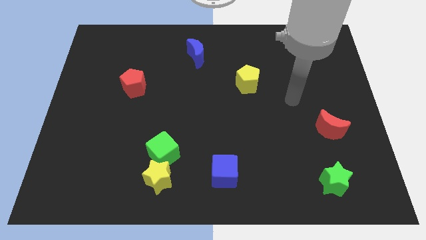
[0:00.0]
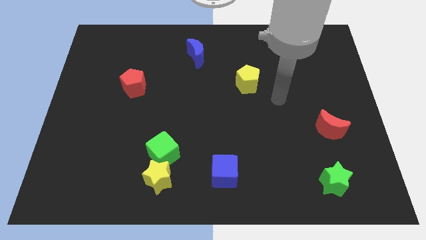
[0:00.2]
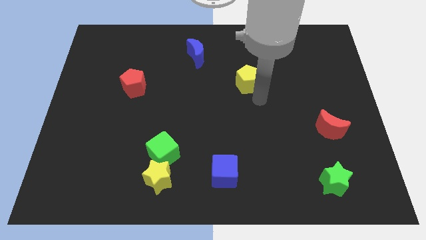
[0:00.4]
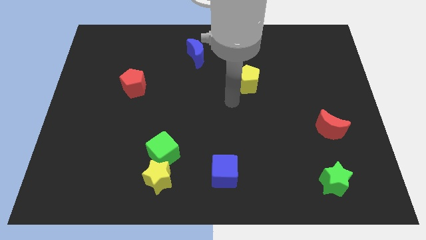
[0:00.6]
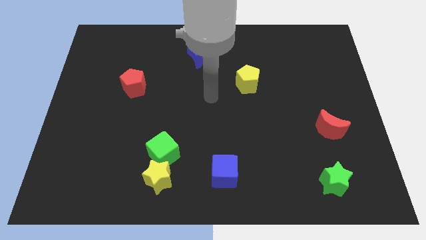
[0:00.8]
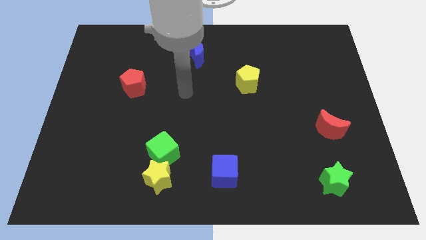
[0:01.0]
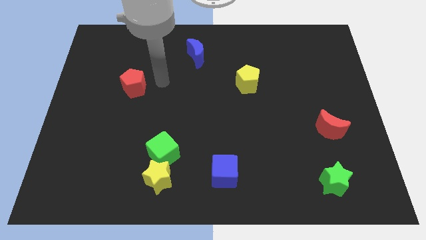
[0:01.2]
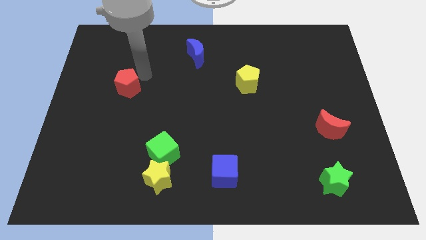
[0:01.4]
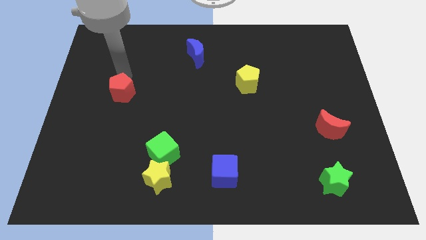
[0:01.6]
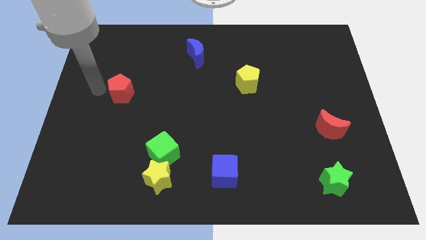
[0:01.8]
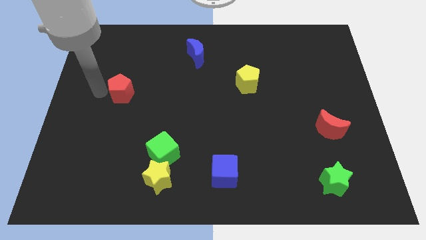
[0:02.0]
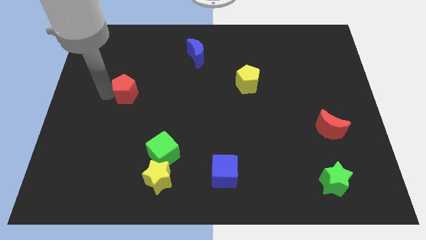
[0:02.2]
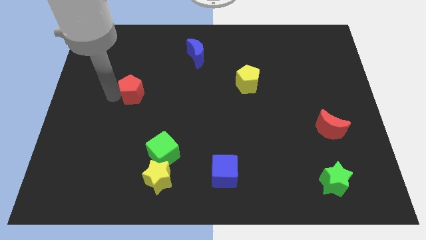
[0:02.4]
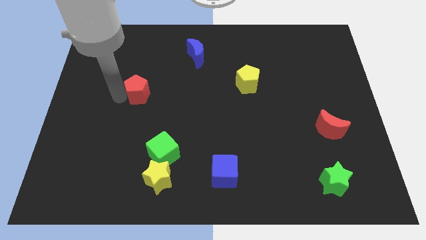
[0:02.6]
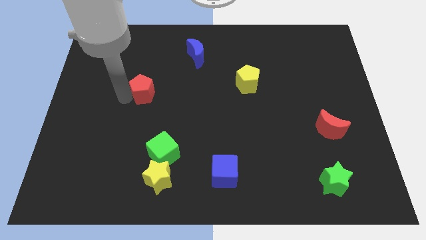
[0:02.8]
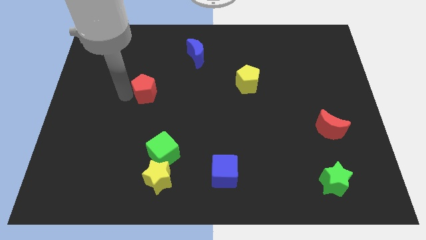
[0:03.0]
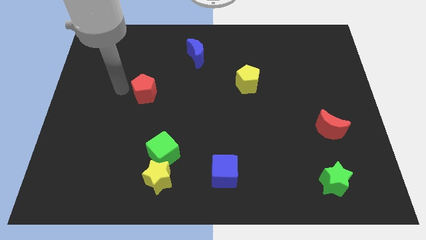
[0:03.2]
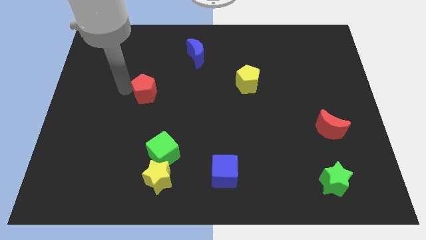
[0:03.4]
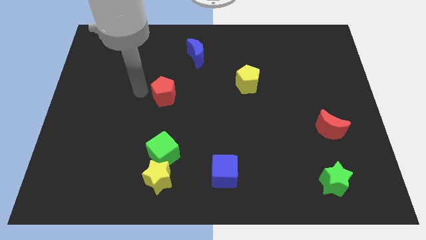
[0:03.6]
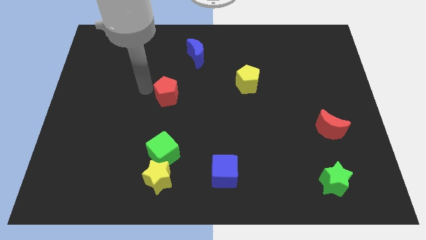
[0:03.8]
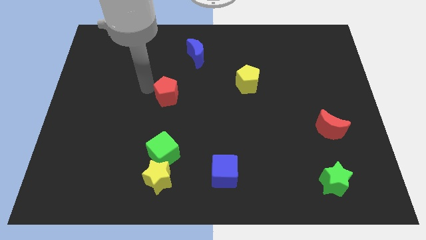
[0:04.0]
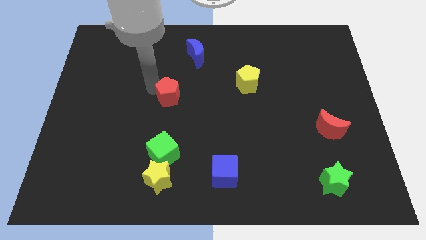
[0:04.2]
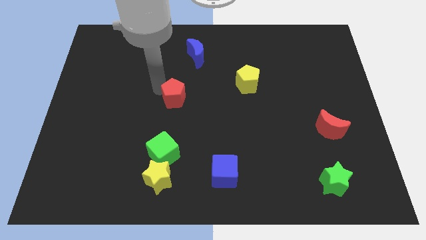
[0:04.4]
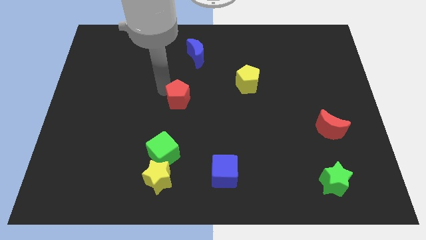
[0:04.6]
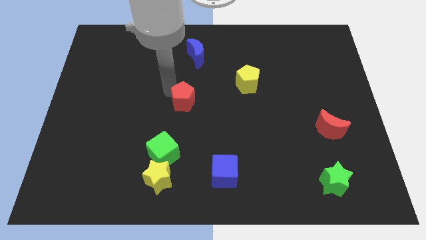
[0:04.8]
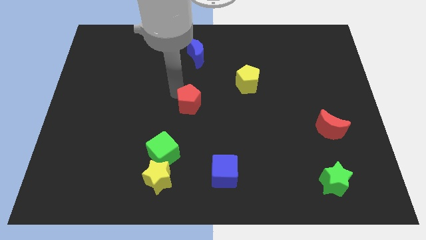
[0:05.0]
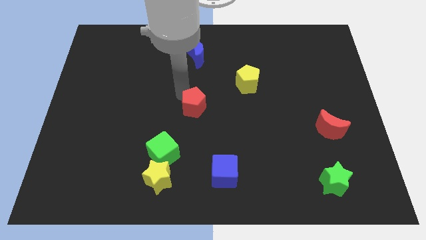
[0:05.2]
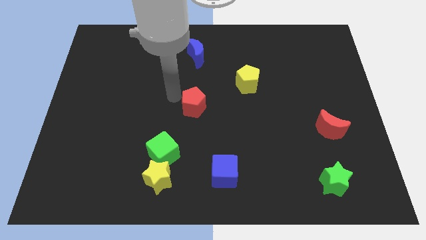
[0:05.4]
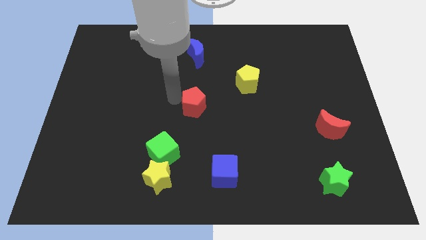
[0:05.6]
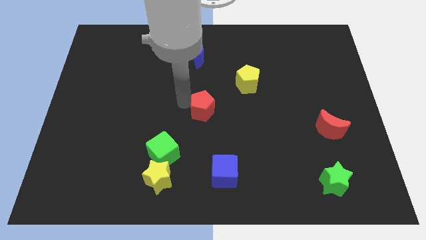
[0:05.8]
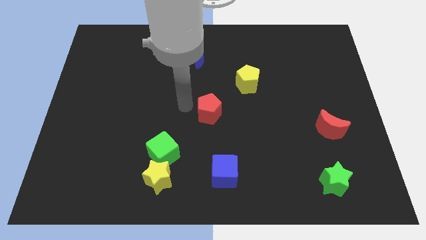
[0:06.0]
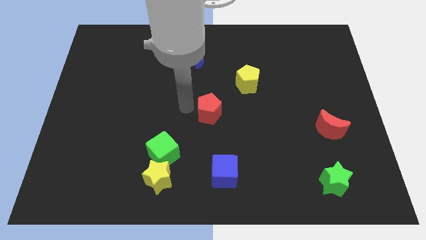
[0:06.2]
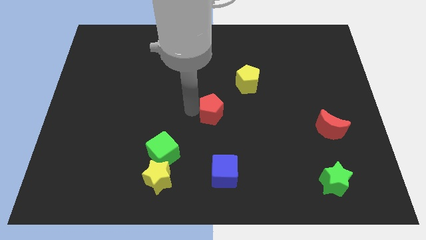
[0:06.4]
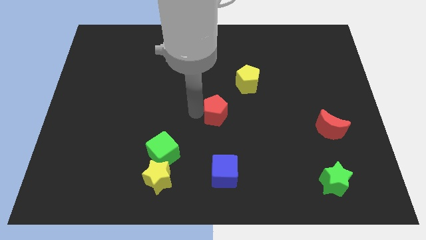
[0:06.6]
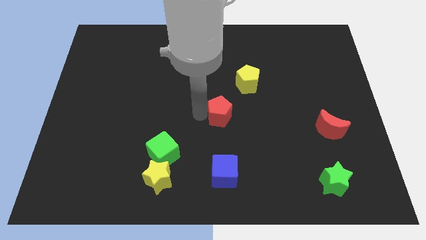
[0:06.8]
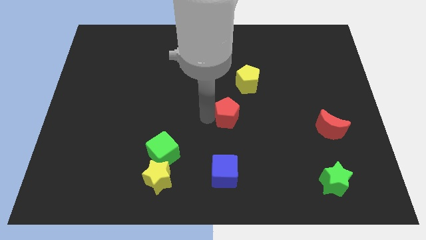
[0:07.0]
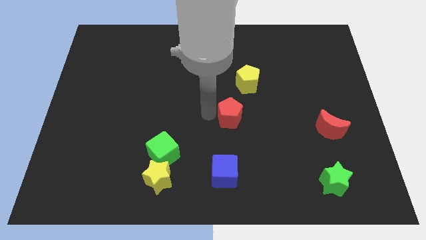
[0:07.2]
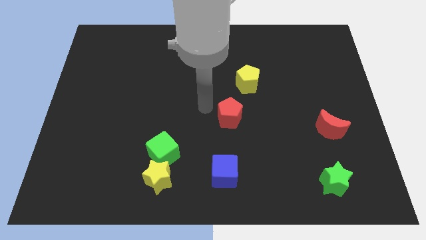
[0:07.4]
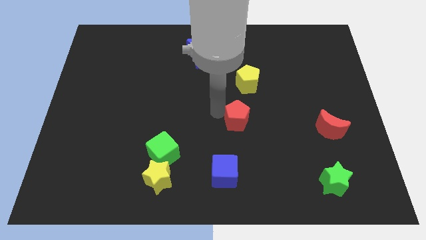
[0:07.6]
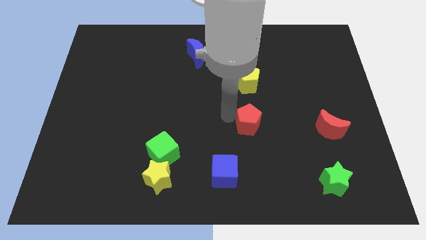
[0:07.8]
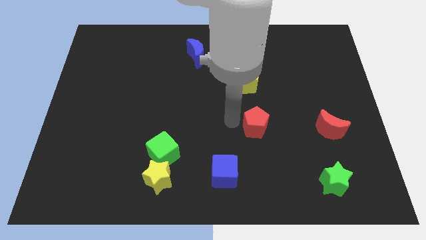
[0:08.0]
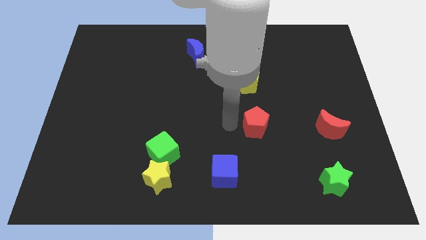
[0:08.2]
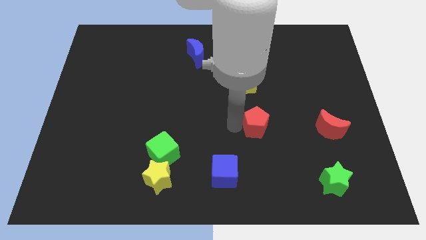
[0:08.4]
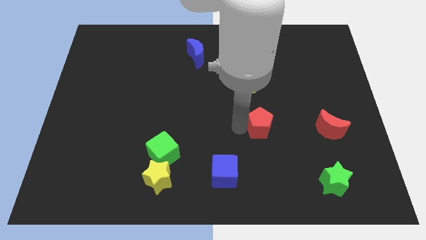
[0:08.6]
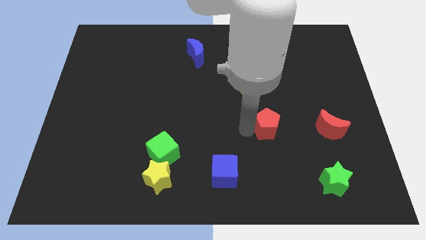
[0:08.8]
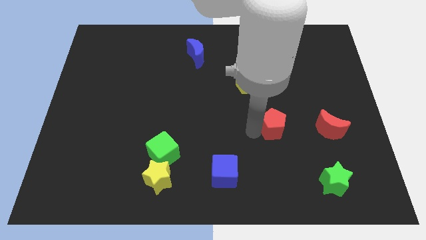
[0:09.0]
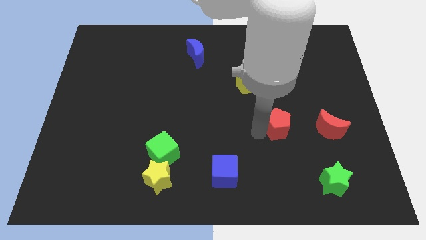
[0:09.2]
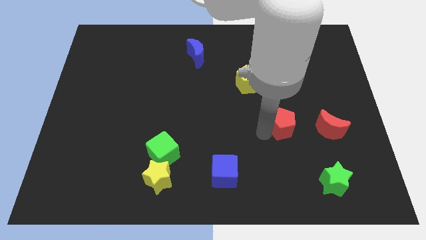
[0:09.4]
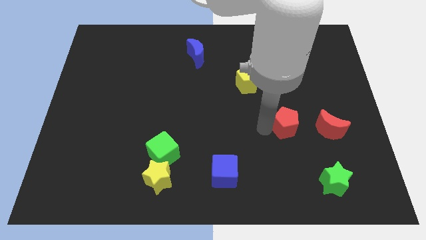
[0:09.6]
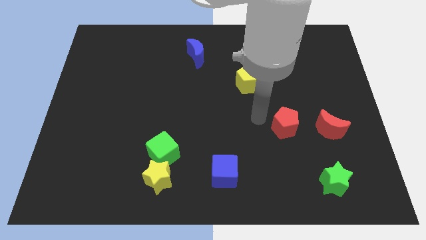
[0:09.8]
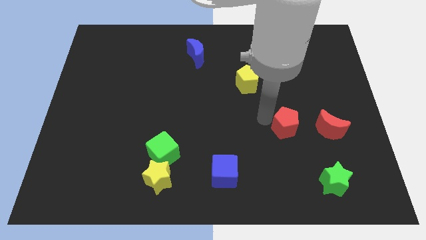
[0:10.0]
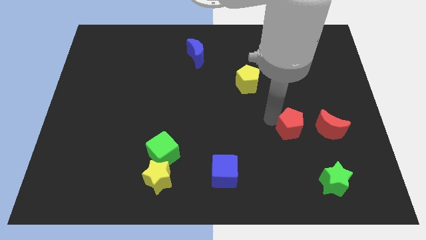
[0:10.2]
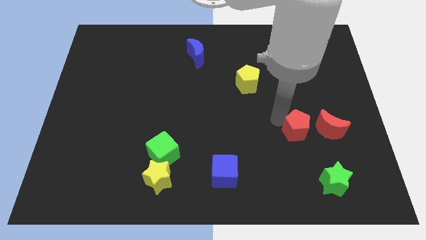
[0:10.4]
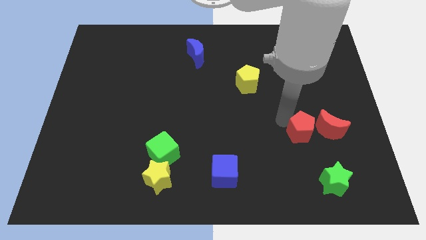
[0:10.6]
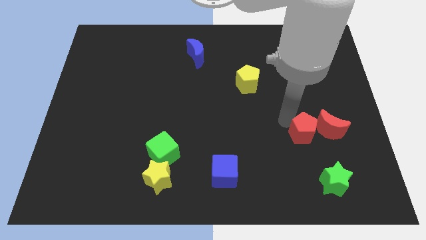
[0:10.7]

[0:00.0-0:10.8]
slide the red pentagon towards the red moon

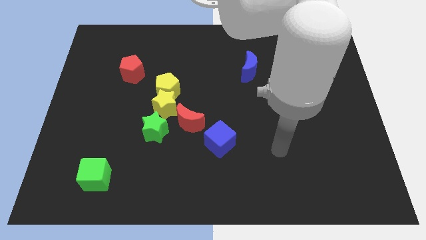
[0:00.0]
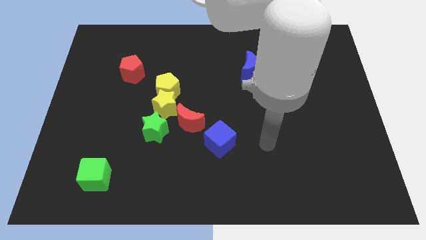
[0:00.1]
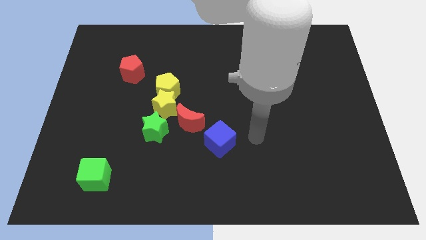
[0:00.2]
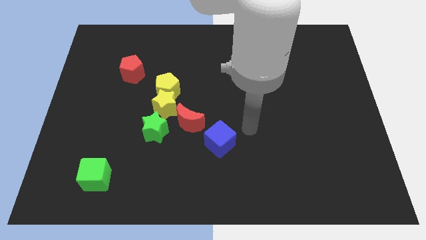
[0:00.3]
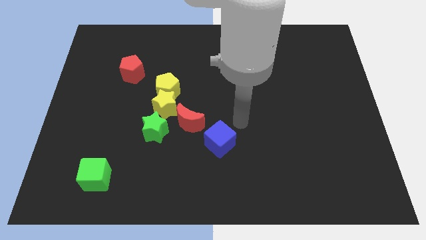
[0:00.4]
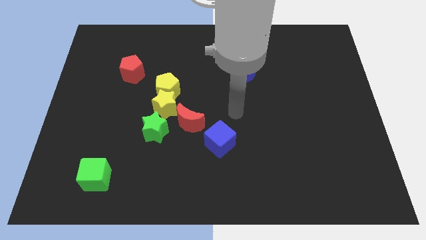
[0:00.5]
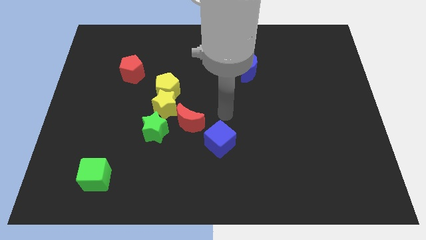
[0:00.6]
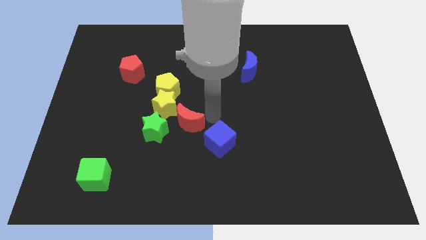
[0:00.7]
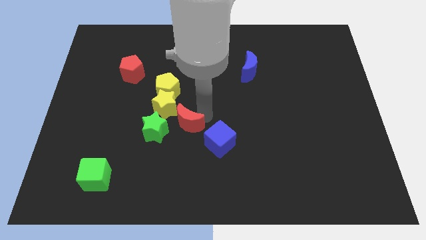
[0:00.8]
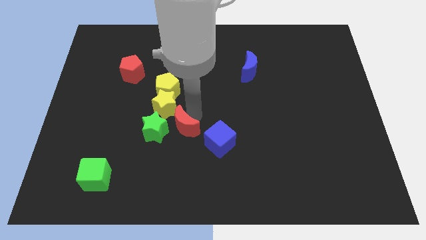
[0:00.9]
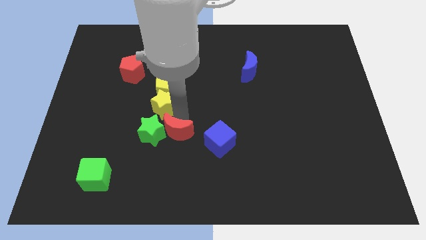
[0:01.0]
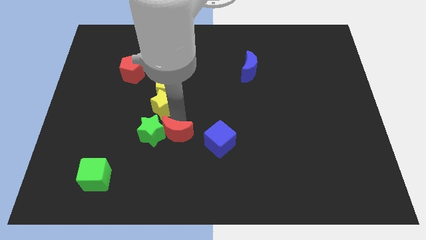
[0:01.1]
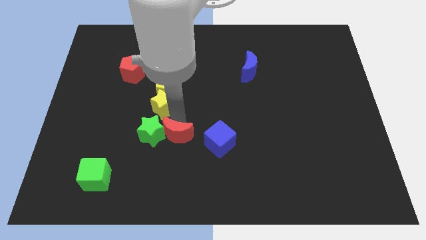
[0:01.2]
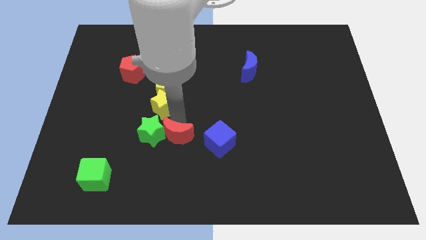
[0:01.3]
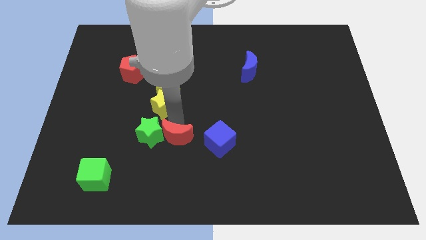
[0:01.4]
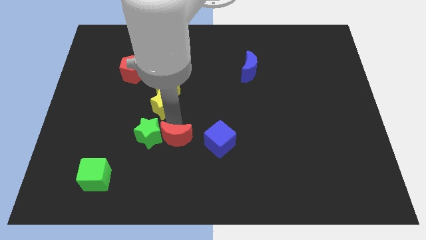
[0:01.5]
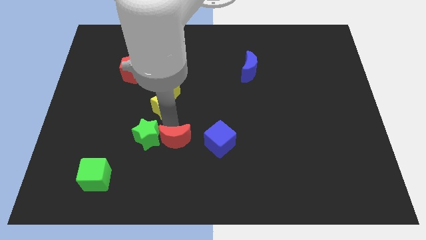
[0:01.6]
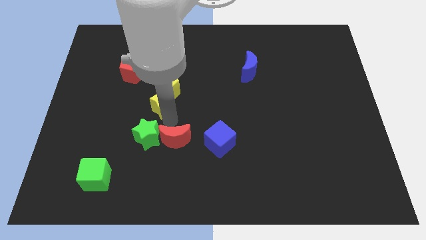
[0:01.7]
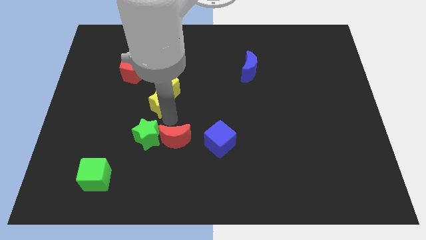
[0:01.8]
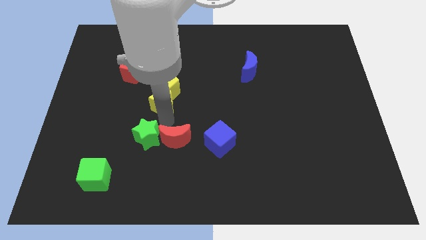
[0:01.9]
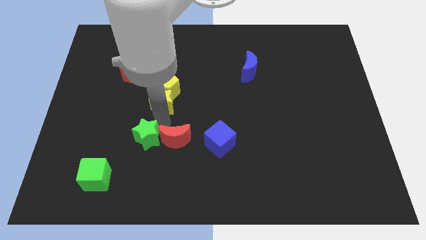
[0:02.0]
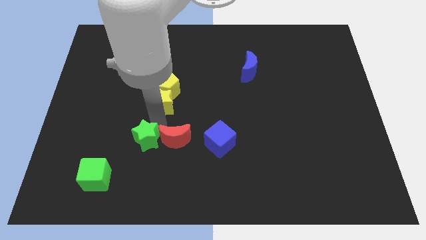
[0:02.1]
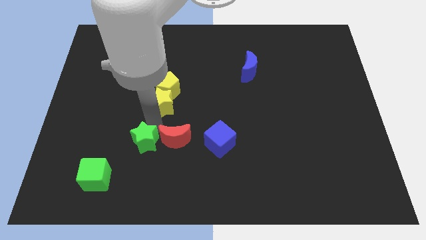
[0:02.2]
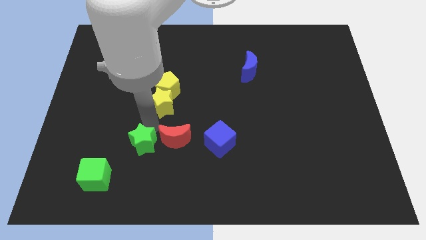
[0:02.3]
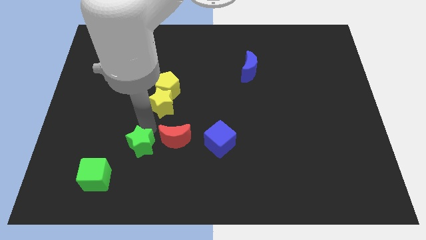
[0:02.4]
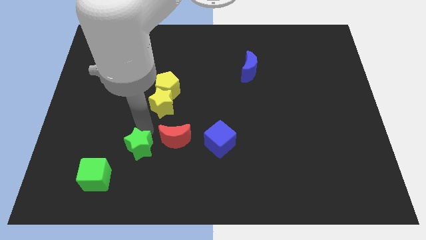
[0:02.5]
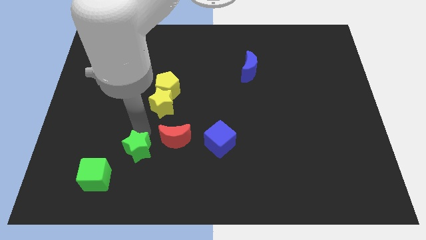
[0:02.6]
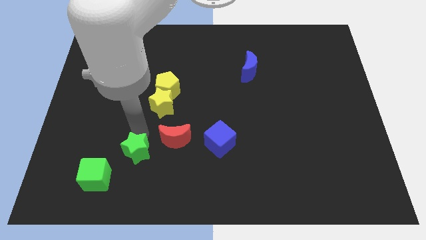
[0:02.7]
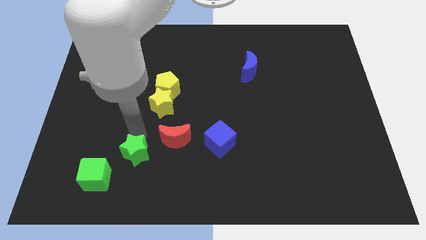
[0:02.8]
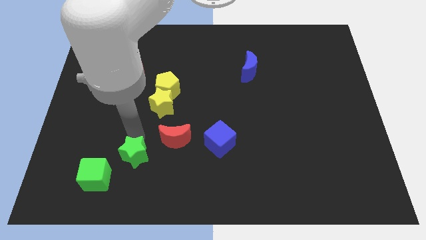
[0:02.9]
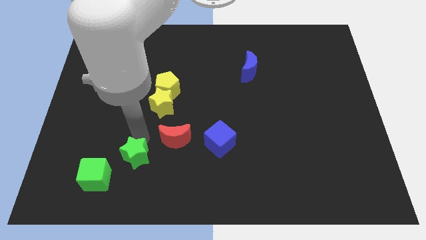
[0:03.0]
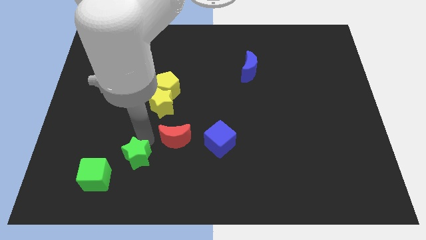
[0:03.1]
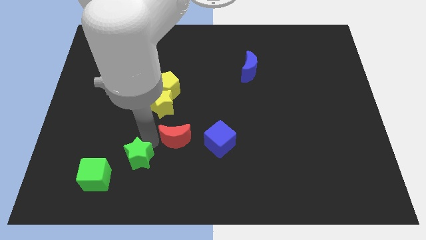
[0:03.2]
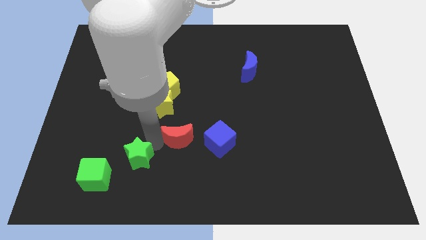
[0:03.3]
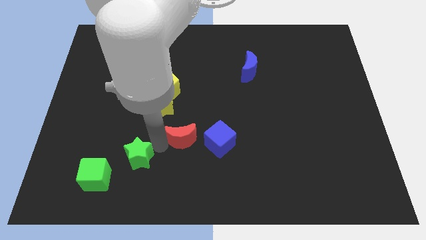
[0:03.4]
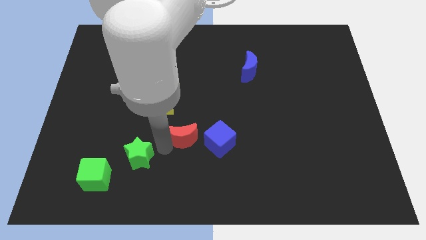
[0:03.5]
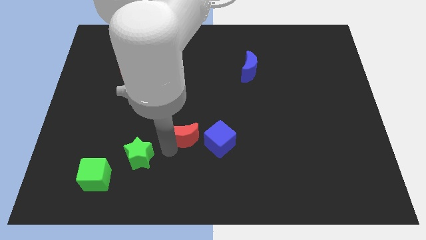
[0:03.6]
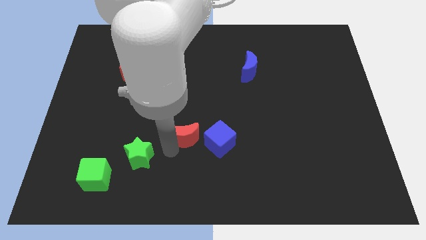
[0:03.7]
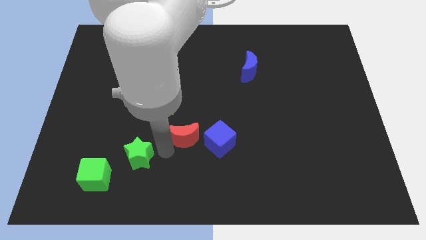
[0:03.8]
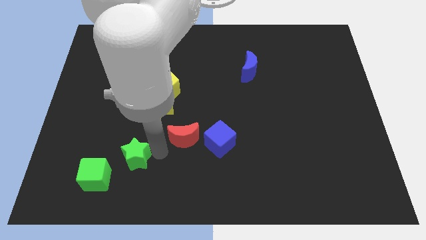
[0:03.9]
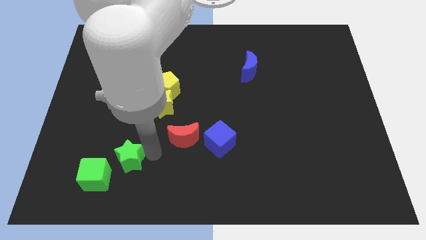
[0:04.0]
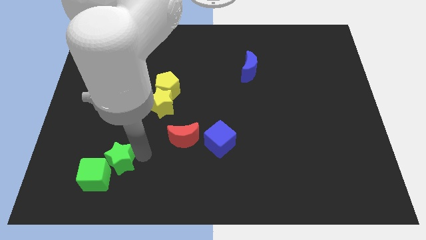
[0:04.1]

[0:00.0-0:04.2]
put the green star close to the green cube
